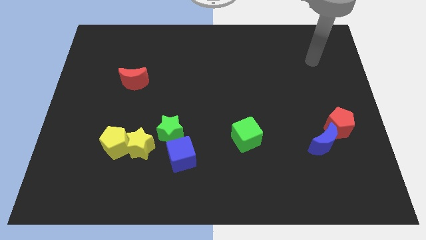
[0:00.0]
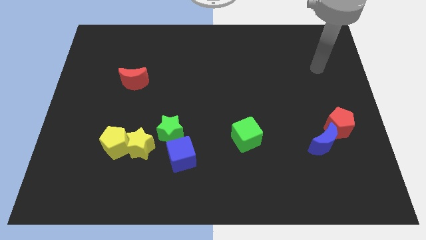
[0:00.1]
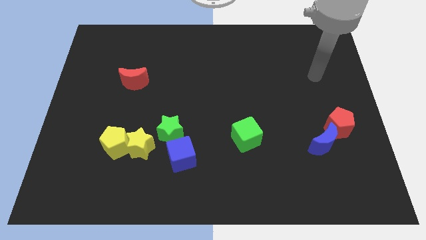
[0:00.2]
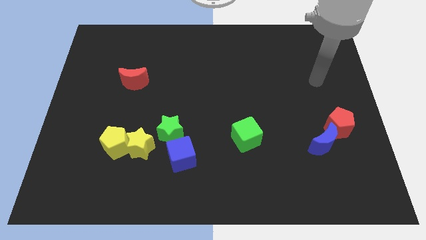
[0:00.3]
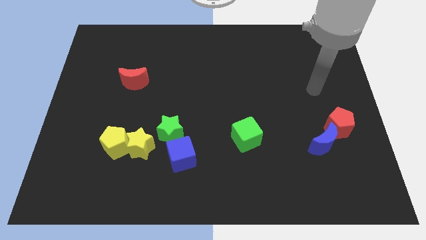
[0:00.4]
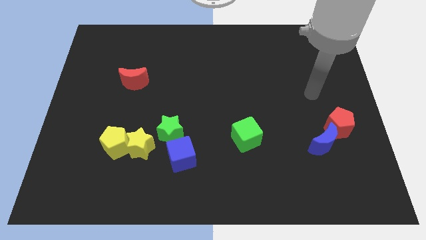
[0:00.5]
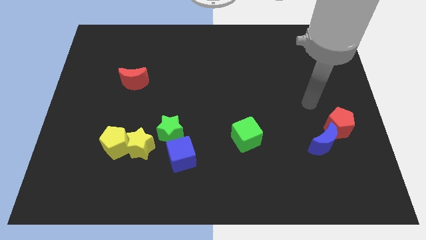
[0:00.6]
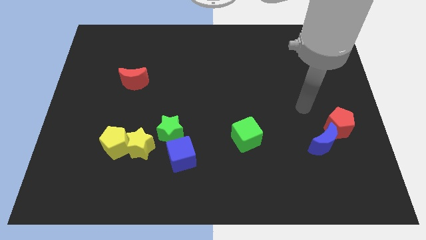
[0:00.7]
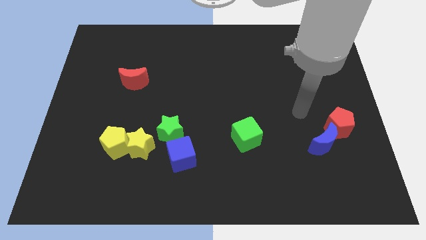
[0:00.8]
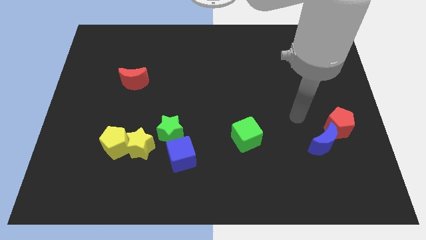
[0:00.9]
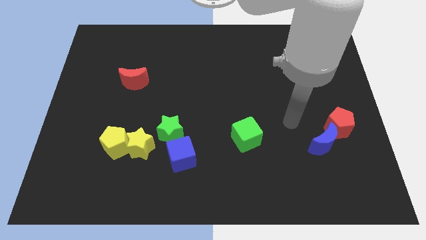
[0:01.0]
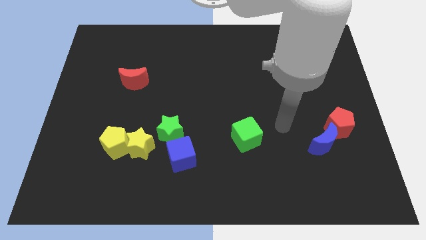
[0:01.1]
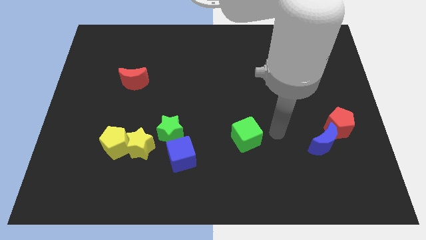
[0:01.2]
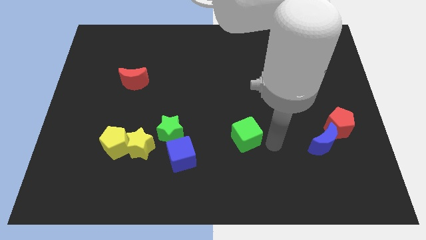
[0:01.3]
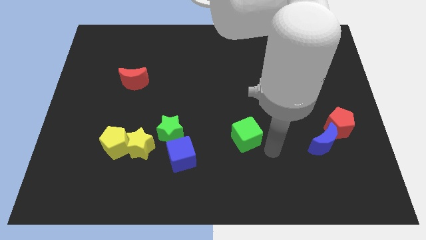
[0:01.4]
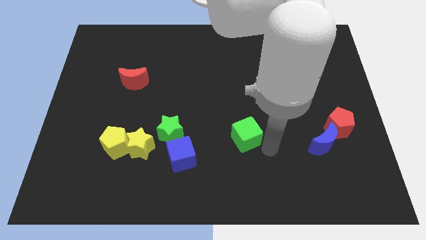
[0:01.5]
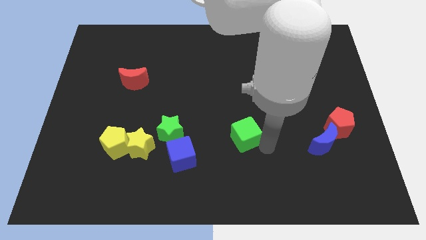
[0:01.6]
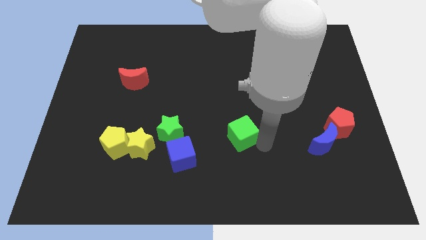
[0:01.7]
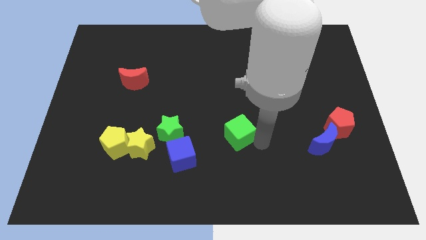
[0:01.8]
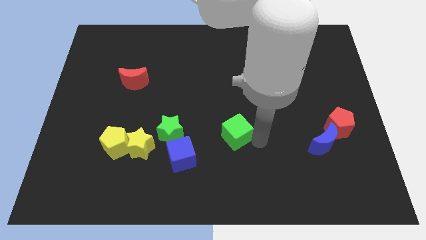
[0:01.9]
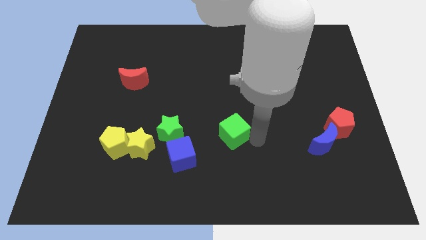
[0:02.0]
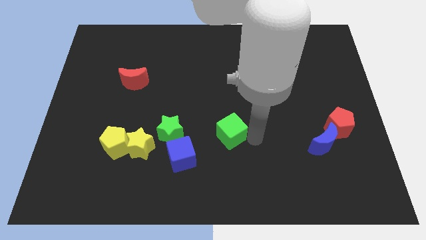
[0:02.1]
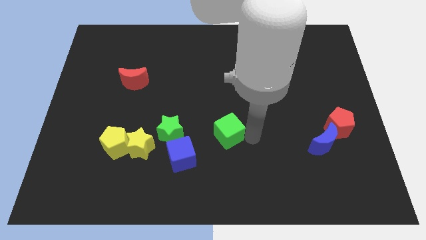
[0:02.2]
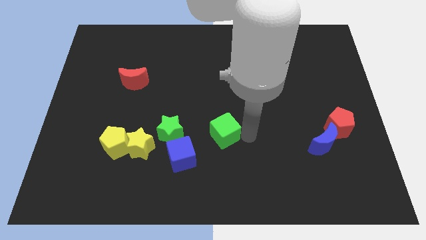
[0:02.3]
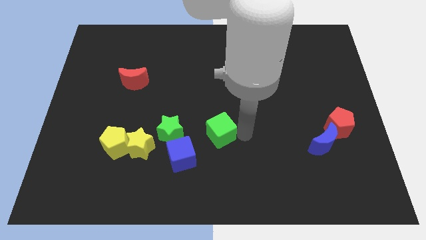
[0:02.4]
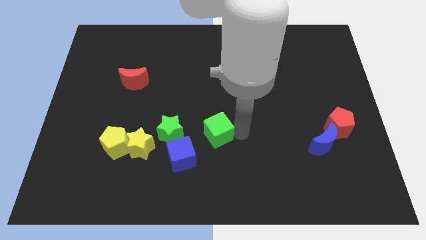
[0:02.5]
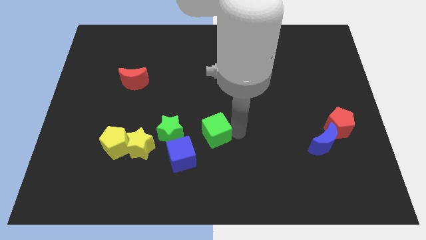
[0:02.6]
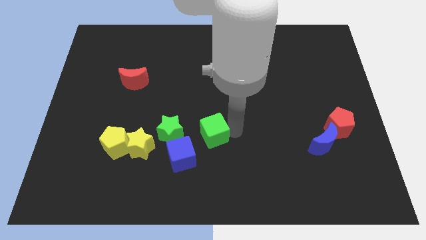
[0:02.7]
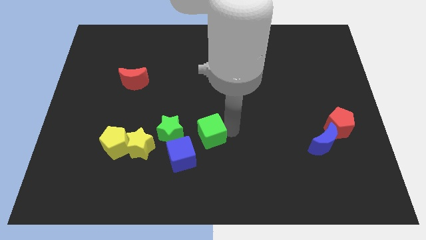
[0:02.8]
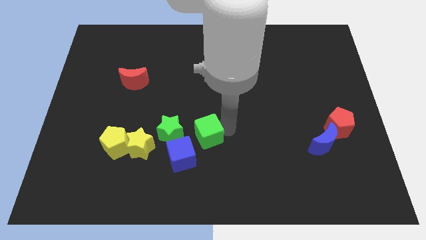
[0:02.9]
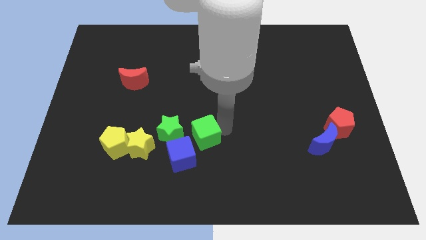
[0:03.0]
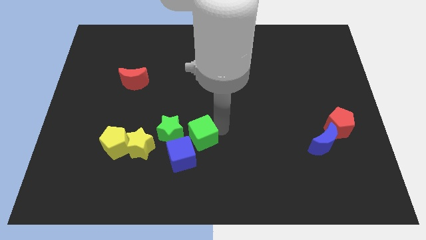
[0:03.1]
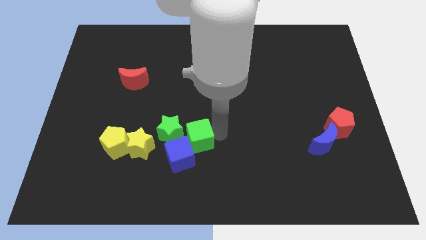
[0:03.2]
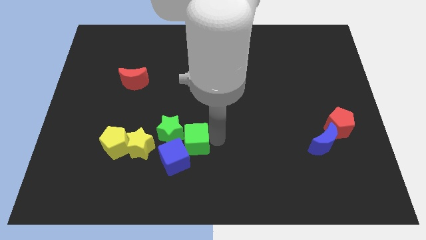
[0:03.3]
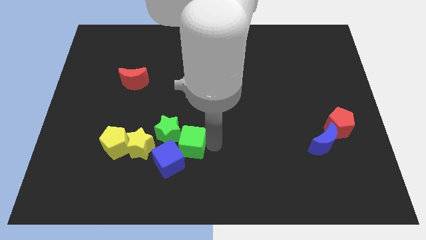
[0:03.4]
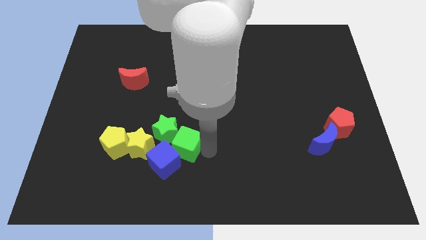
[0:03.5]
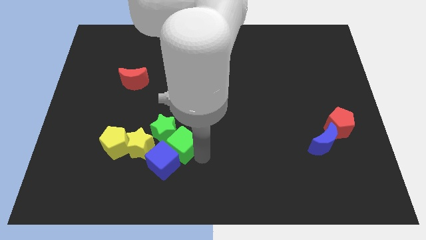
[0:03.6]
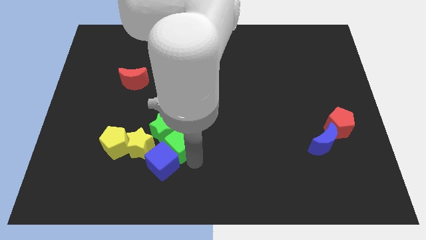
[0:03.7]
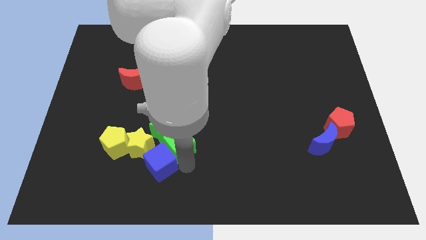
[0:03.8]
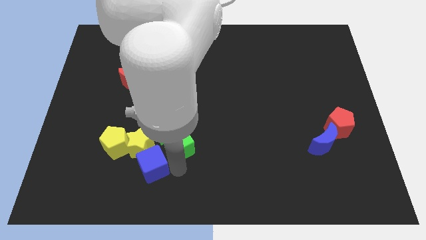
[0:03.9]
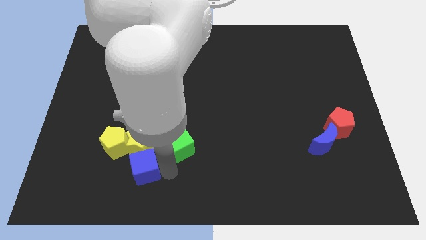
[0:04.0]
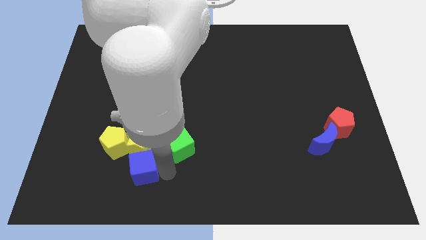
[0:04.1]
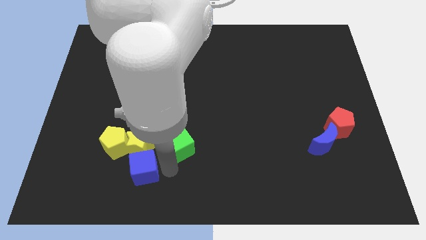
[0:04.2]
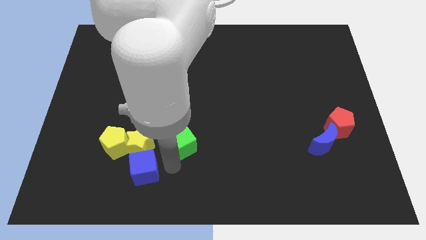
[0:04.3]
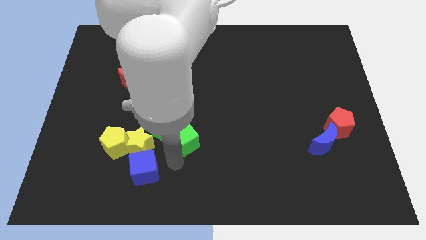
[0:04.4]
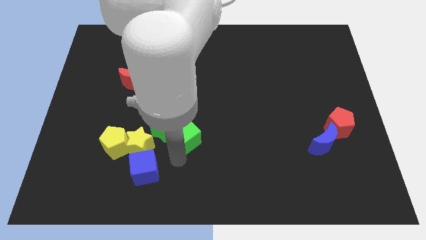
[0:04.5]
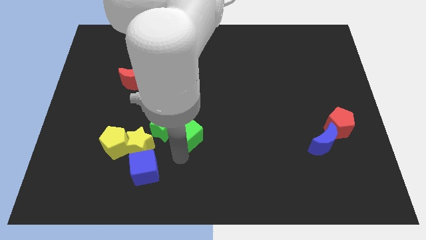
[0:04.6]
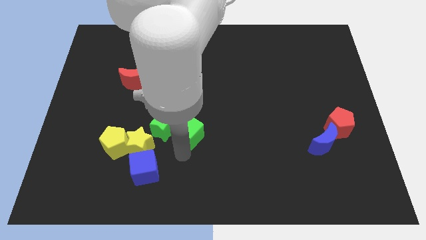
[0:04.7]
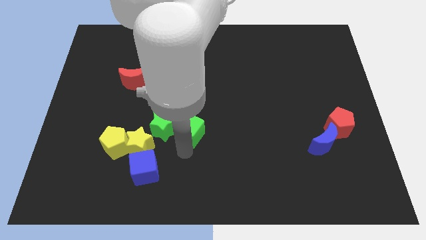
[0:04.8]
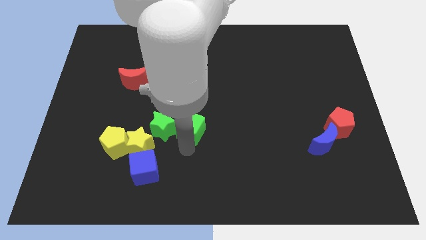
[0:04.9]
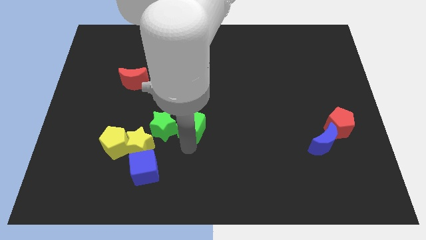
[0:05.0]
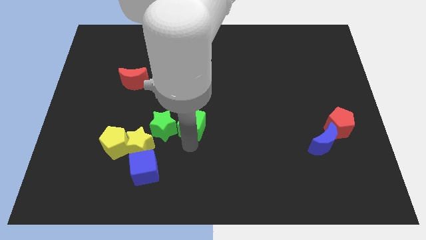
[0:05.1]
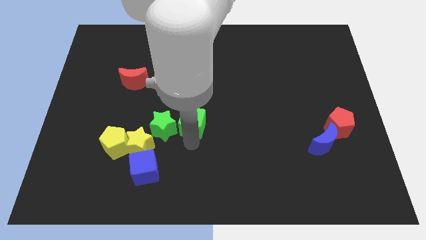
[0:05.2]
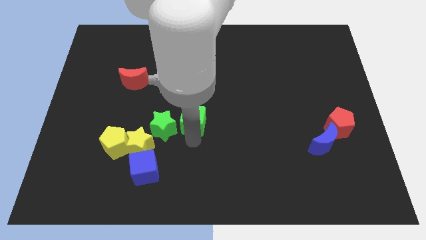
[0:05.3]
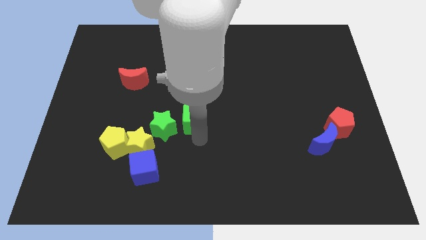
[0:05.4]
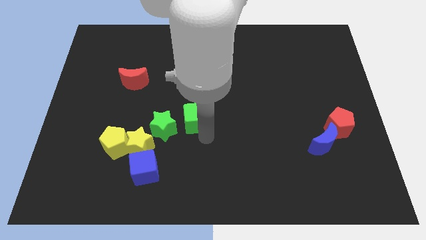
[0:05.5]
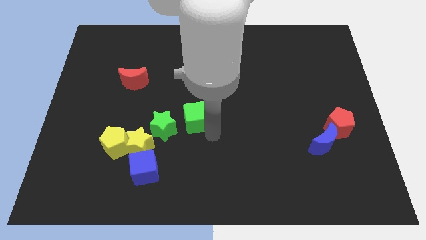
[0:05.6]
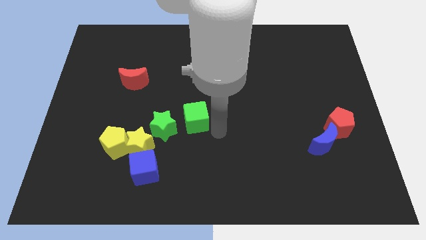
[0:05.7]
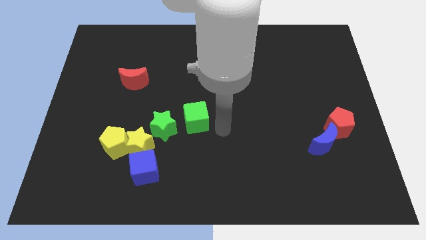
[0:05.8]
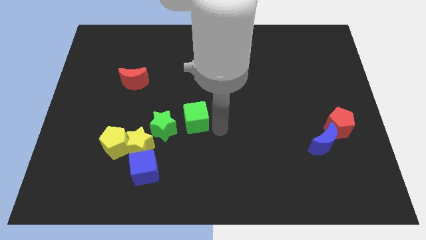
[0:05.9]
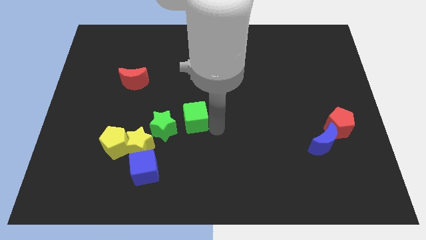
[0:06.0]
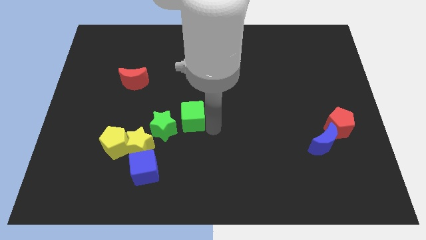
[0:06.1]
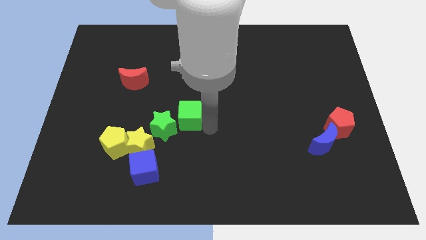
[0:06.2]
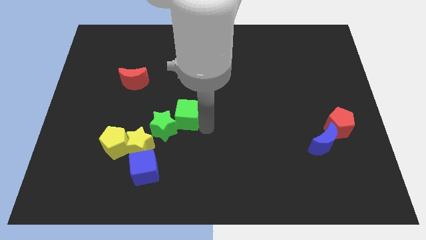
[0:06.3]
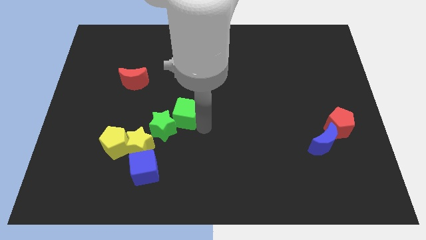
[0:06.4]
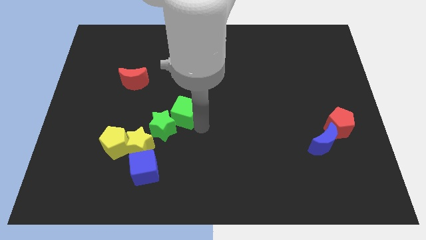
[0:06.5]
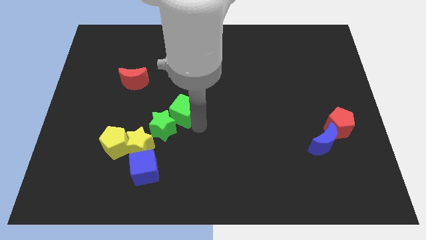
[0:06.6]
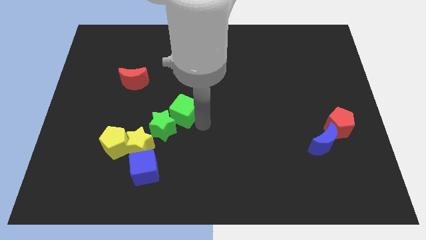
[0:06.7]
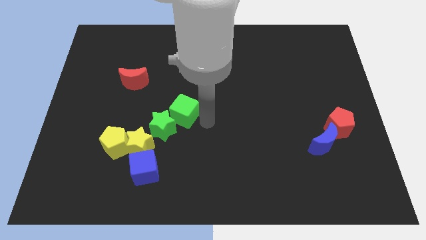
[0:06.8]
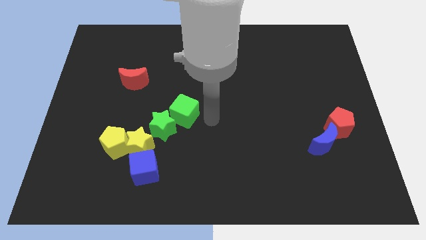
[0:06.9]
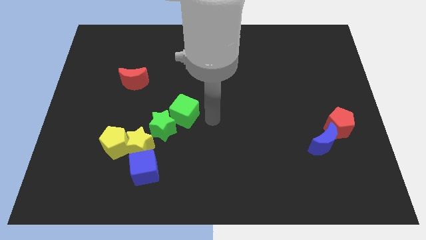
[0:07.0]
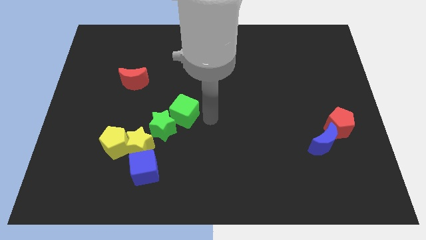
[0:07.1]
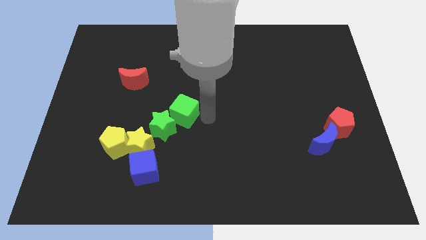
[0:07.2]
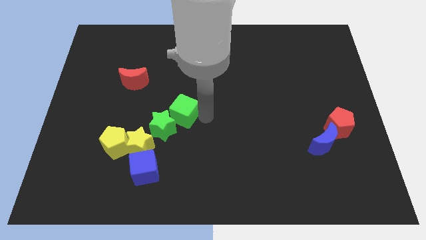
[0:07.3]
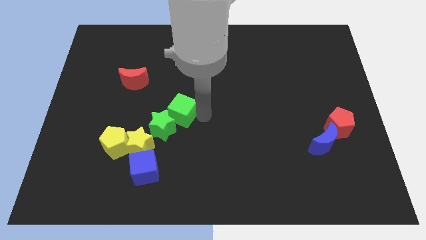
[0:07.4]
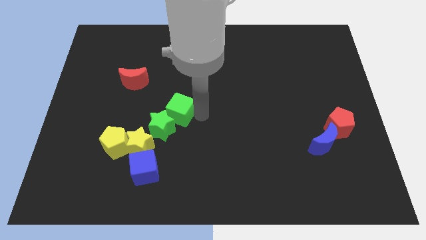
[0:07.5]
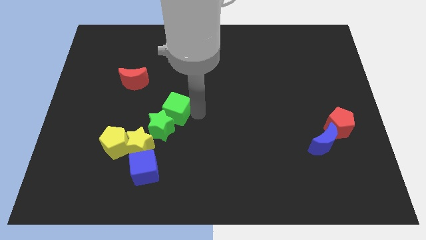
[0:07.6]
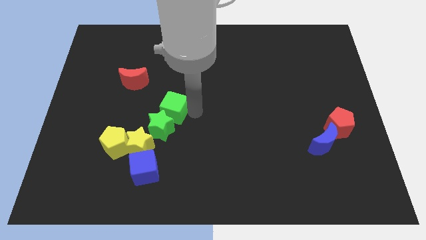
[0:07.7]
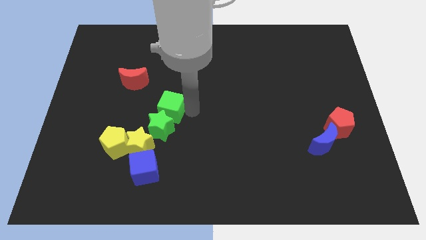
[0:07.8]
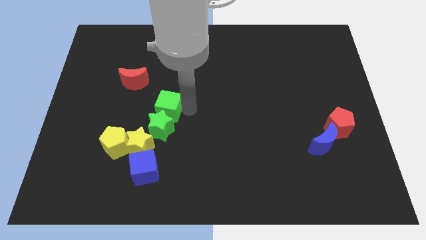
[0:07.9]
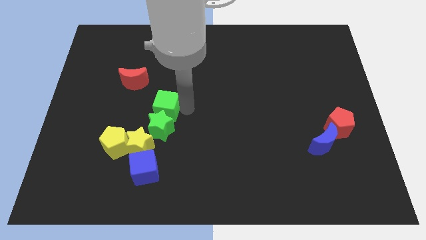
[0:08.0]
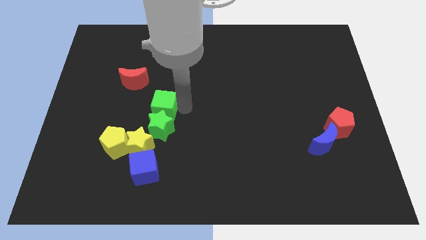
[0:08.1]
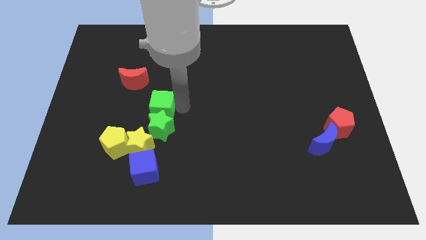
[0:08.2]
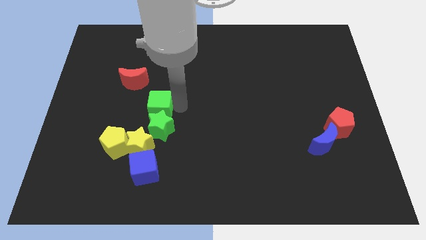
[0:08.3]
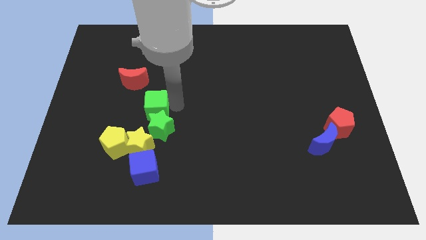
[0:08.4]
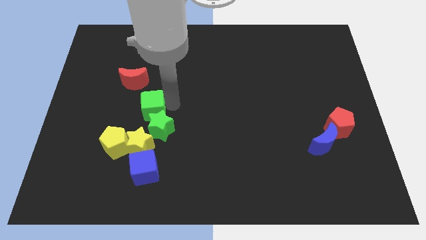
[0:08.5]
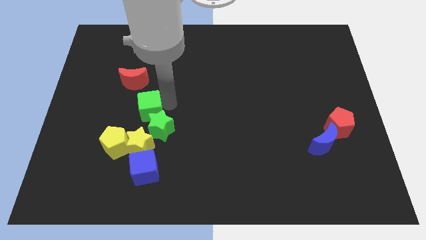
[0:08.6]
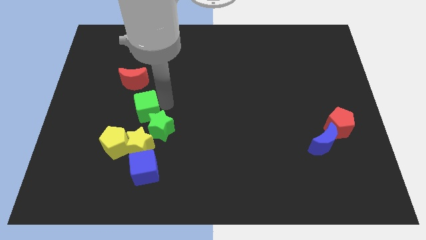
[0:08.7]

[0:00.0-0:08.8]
move the green cube left
